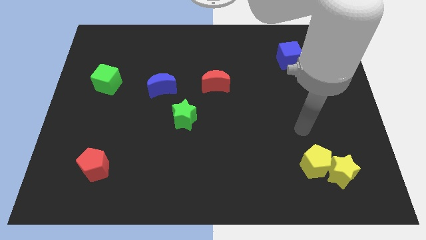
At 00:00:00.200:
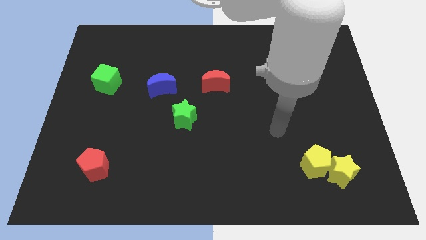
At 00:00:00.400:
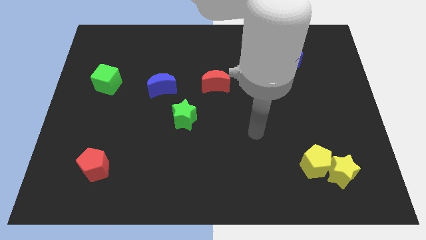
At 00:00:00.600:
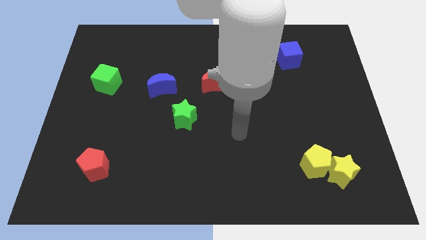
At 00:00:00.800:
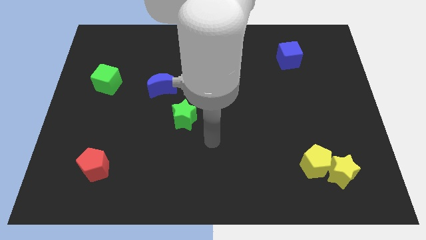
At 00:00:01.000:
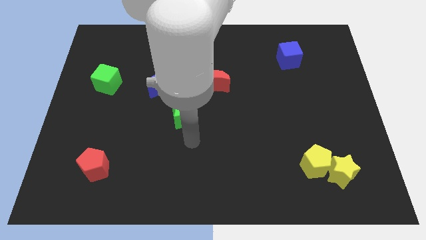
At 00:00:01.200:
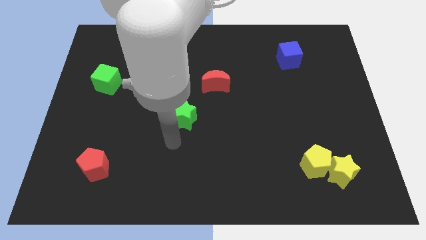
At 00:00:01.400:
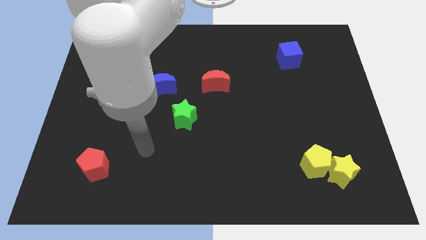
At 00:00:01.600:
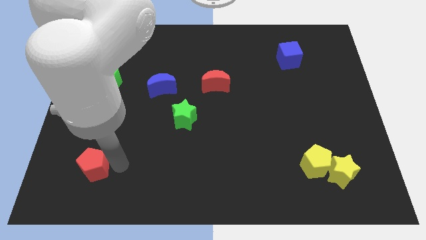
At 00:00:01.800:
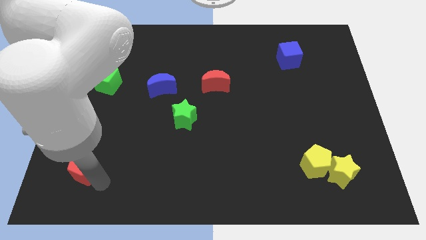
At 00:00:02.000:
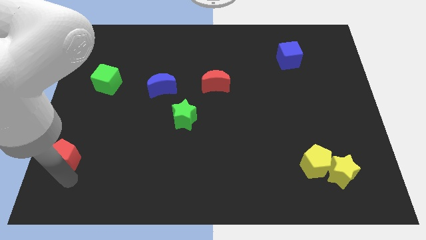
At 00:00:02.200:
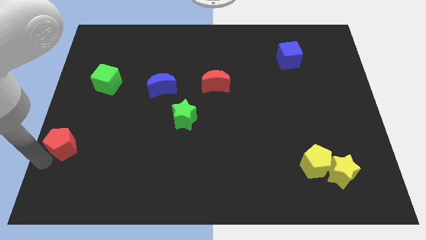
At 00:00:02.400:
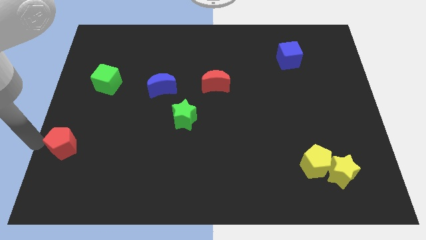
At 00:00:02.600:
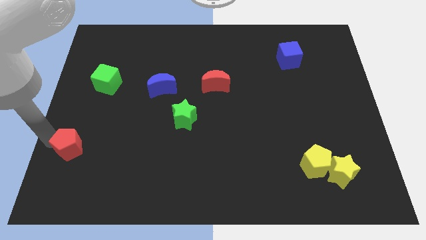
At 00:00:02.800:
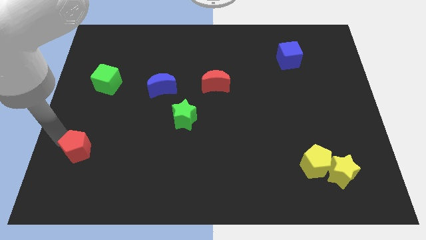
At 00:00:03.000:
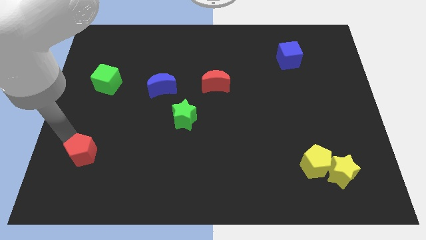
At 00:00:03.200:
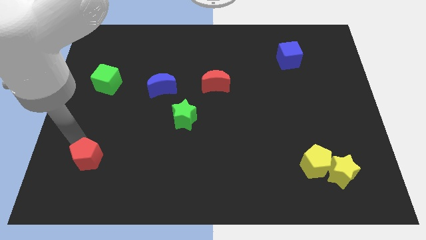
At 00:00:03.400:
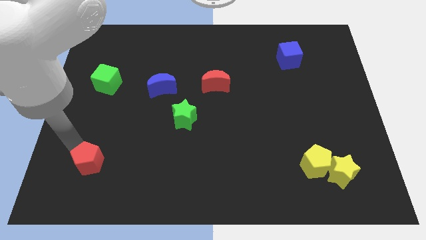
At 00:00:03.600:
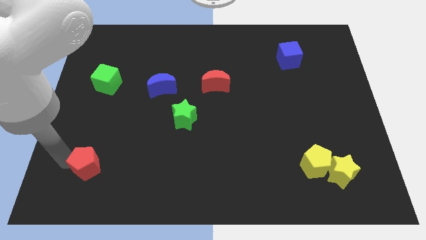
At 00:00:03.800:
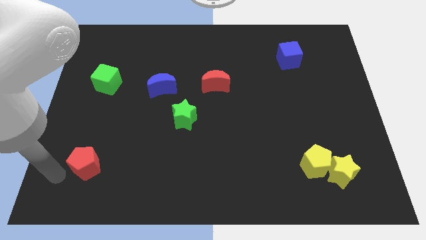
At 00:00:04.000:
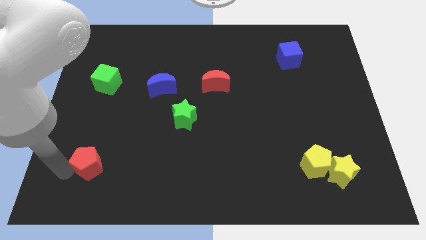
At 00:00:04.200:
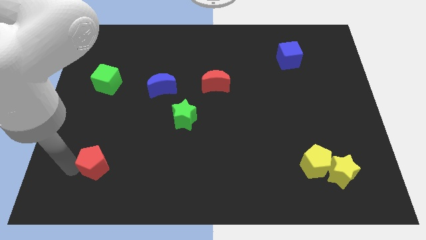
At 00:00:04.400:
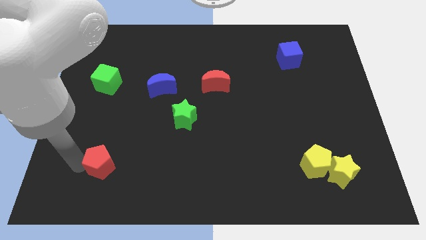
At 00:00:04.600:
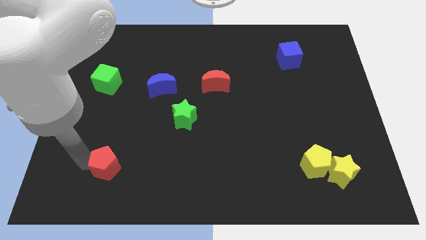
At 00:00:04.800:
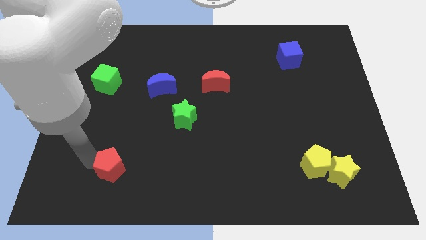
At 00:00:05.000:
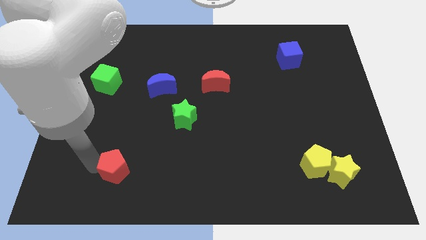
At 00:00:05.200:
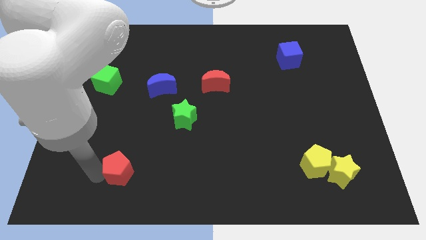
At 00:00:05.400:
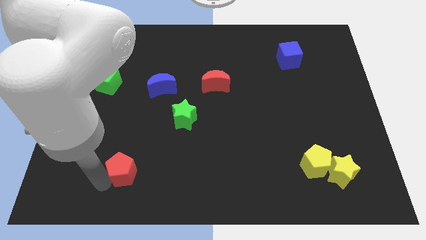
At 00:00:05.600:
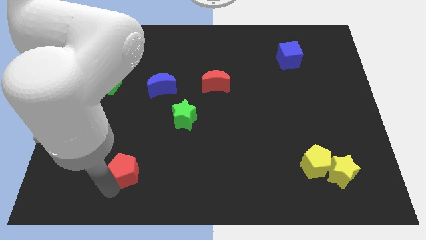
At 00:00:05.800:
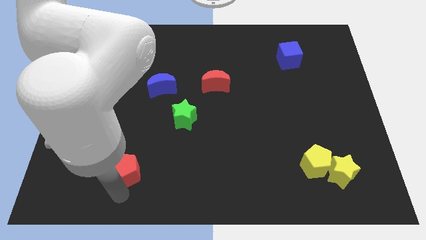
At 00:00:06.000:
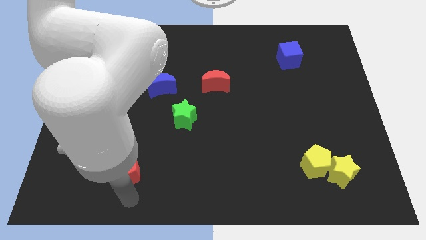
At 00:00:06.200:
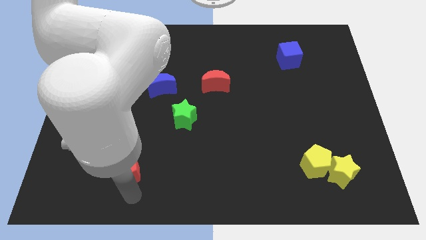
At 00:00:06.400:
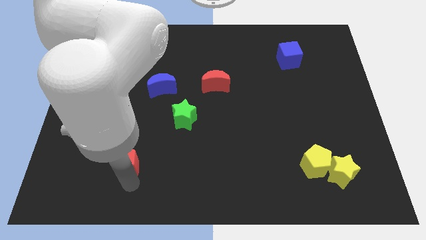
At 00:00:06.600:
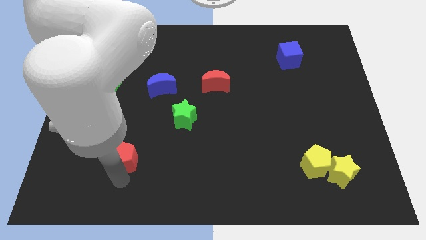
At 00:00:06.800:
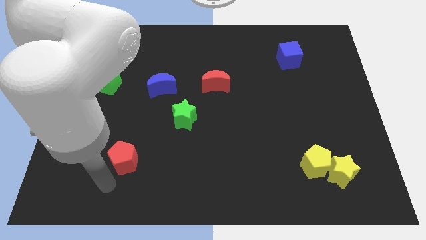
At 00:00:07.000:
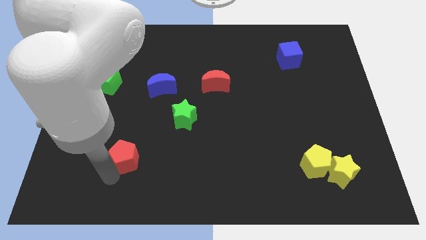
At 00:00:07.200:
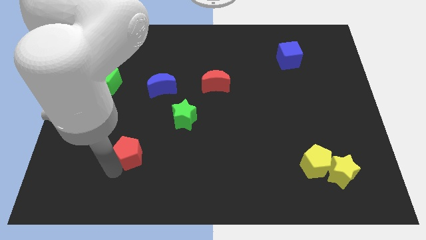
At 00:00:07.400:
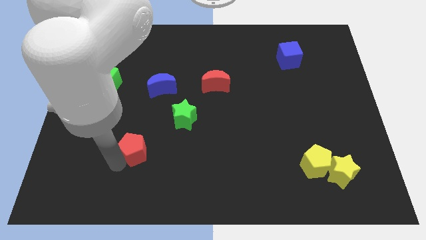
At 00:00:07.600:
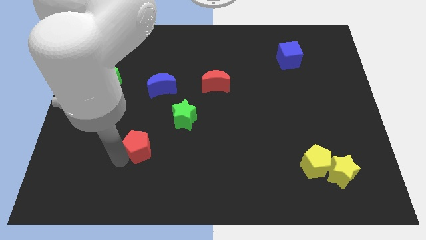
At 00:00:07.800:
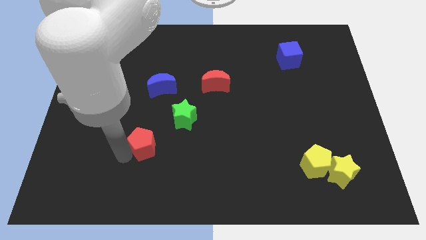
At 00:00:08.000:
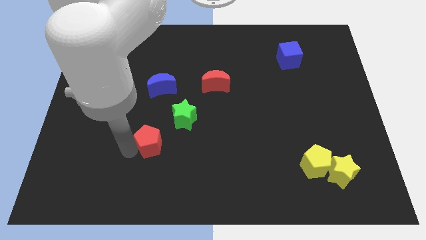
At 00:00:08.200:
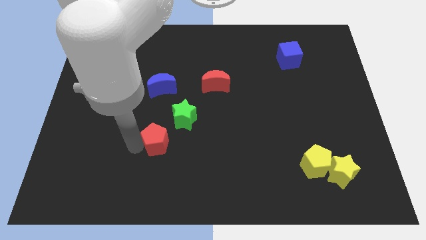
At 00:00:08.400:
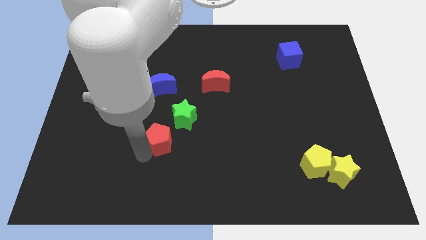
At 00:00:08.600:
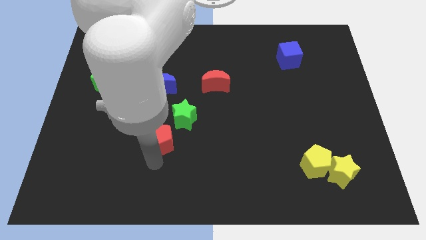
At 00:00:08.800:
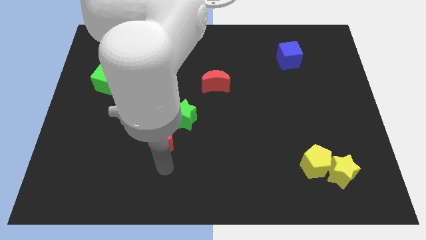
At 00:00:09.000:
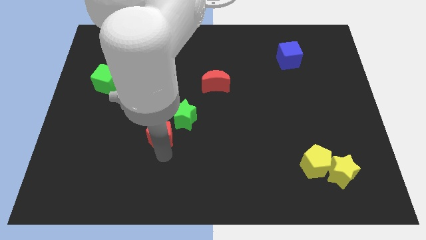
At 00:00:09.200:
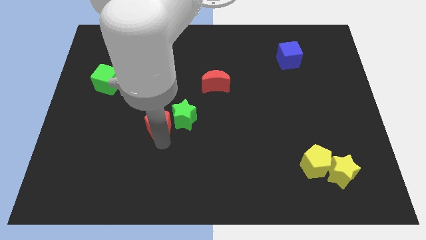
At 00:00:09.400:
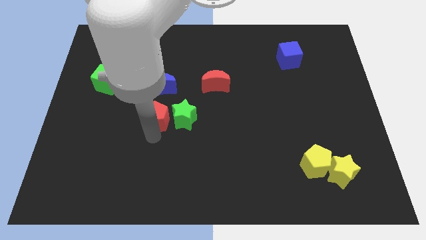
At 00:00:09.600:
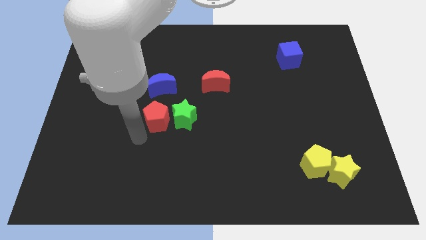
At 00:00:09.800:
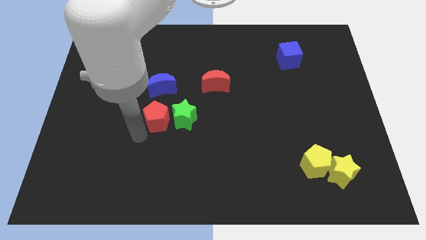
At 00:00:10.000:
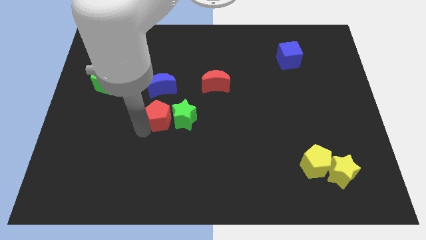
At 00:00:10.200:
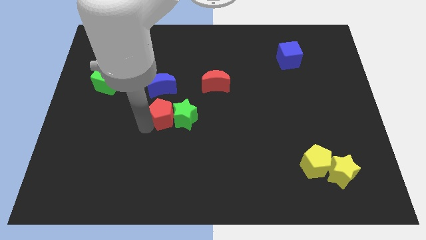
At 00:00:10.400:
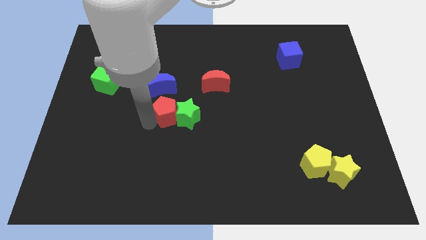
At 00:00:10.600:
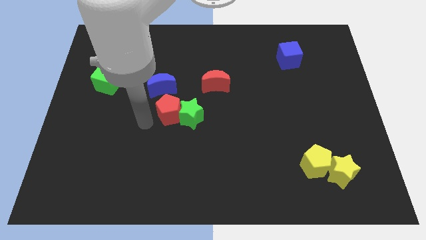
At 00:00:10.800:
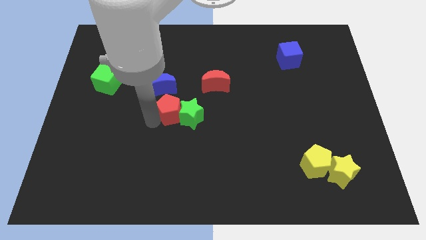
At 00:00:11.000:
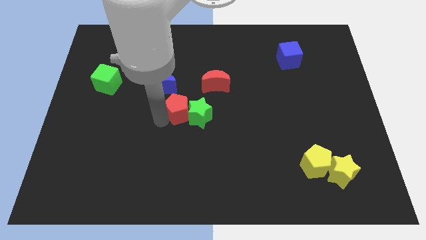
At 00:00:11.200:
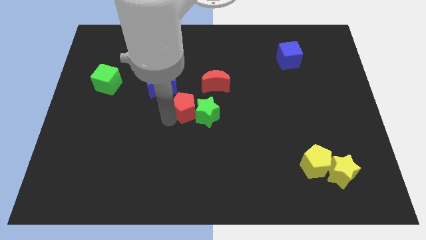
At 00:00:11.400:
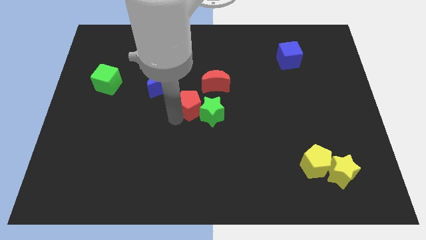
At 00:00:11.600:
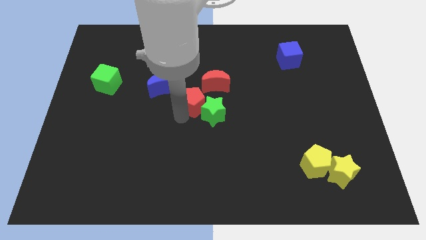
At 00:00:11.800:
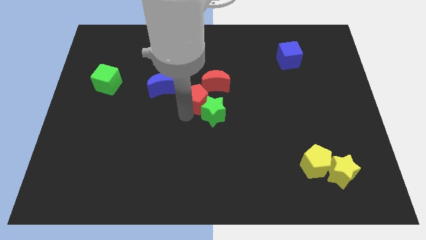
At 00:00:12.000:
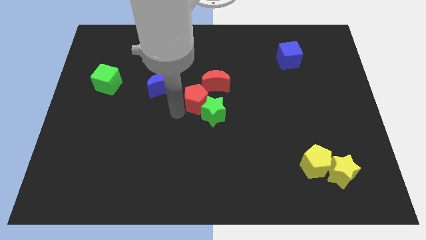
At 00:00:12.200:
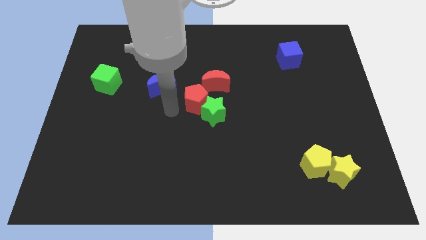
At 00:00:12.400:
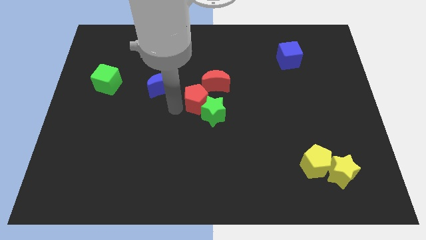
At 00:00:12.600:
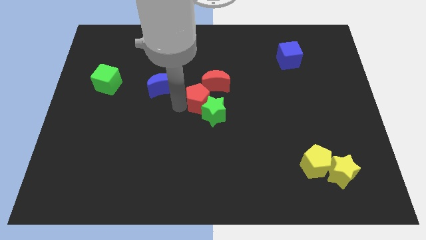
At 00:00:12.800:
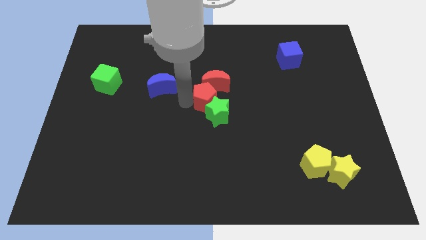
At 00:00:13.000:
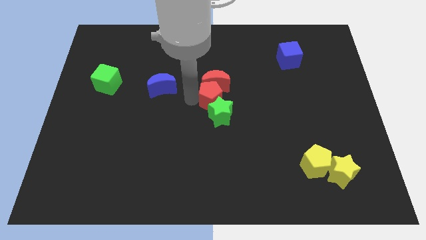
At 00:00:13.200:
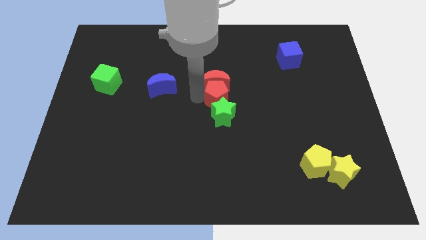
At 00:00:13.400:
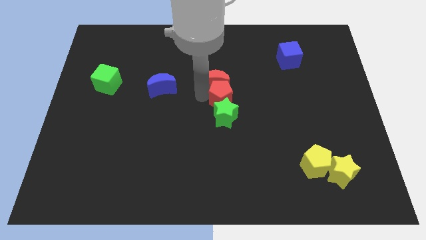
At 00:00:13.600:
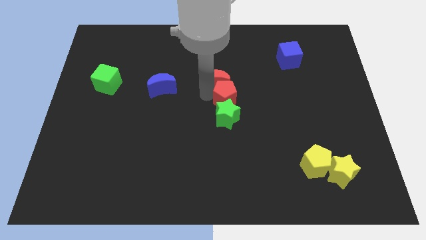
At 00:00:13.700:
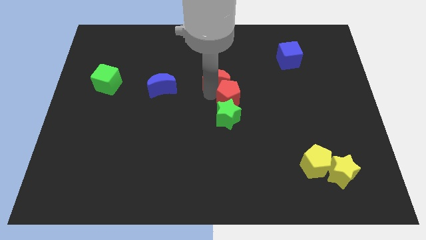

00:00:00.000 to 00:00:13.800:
push the red pentagon just right of the red moon
